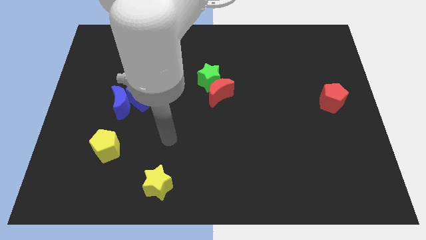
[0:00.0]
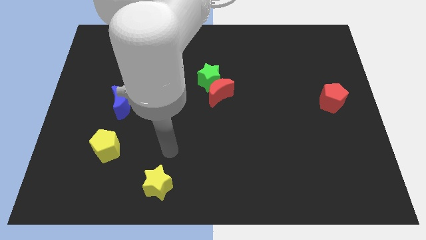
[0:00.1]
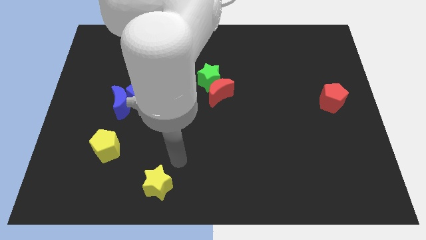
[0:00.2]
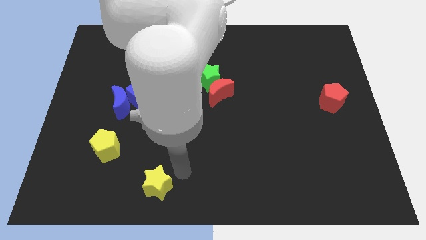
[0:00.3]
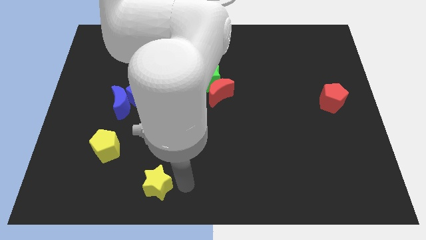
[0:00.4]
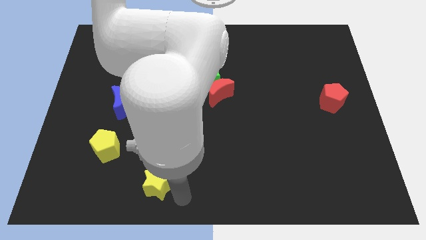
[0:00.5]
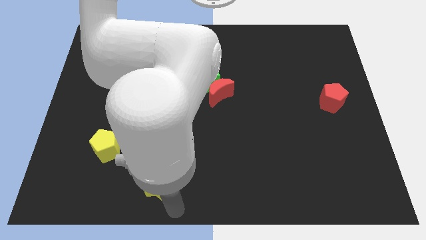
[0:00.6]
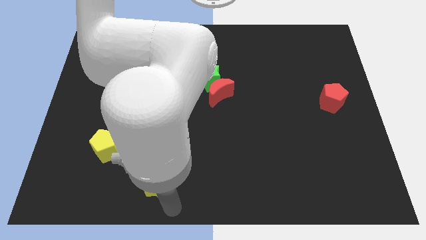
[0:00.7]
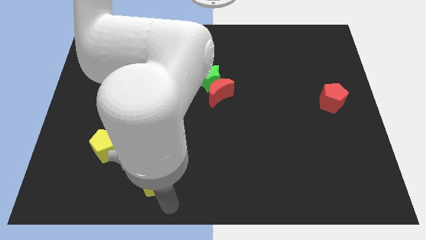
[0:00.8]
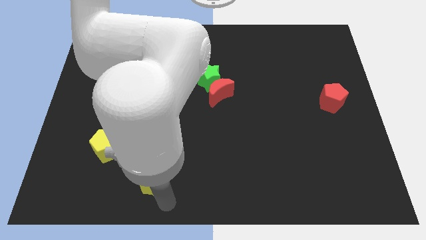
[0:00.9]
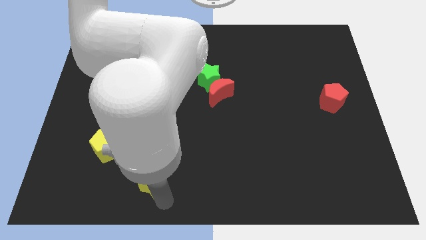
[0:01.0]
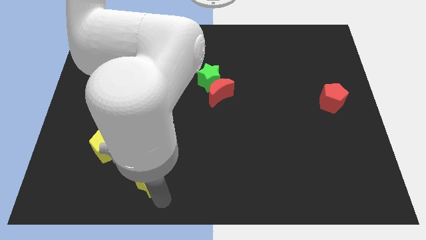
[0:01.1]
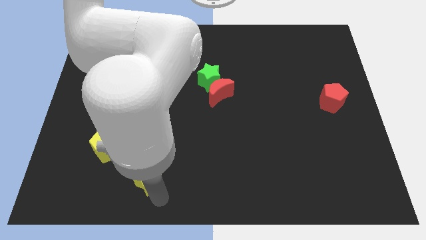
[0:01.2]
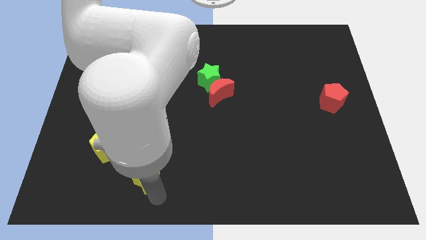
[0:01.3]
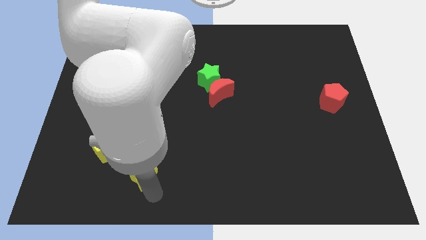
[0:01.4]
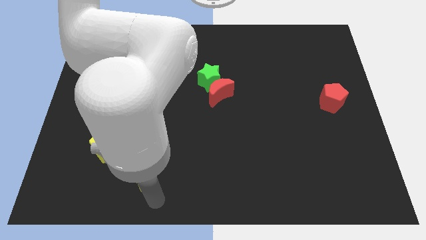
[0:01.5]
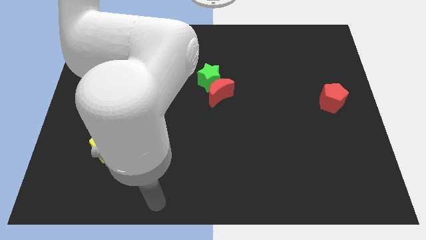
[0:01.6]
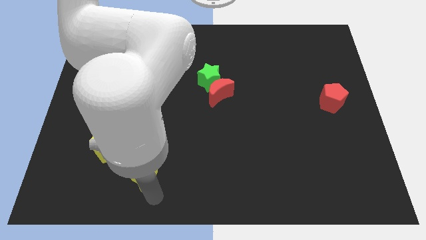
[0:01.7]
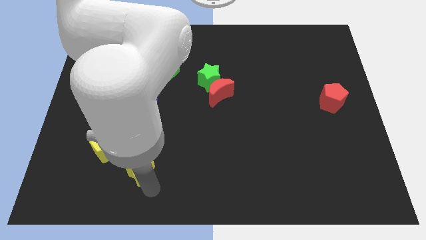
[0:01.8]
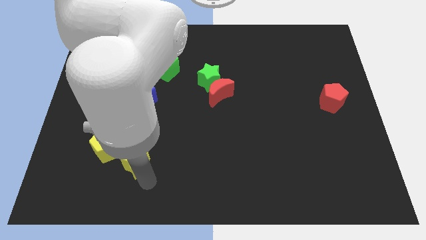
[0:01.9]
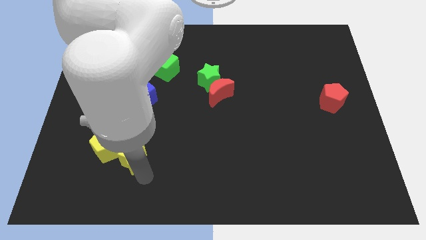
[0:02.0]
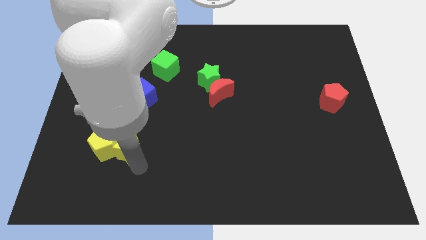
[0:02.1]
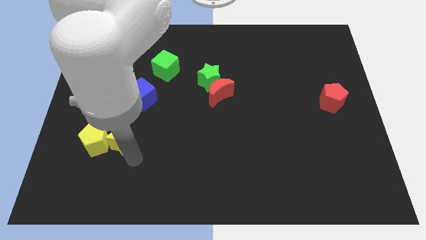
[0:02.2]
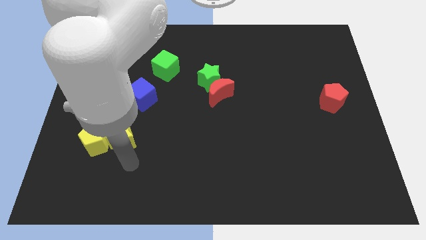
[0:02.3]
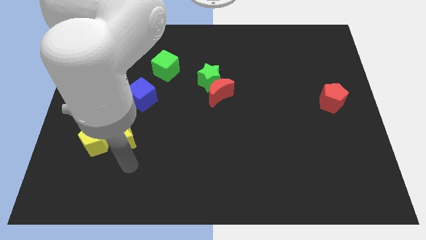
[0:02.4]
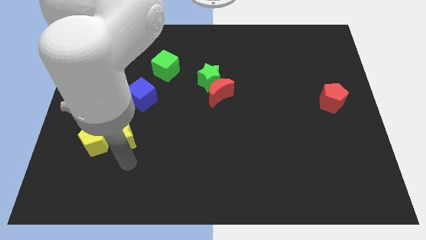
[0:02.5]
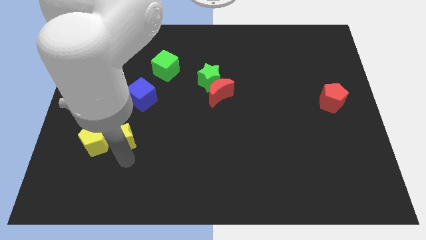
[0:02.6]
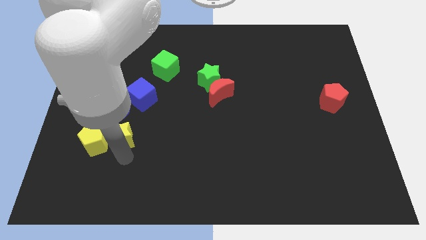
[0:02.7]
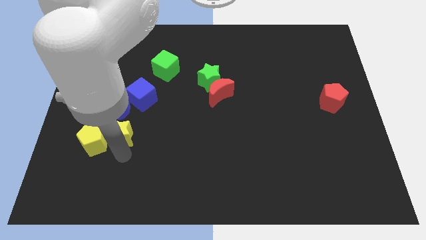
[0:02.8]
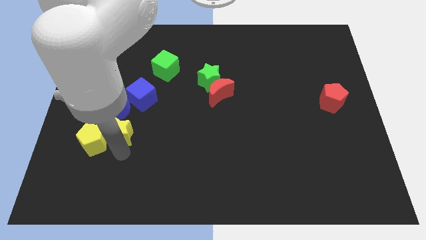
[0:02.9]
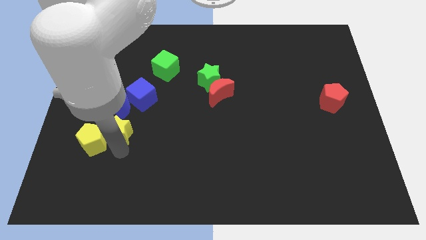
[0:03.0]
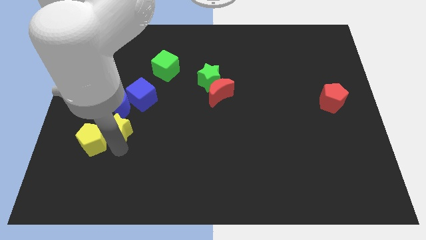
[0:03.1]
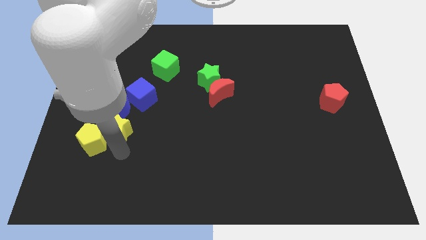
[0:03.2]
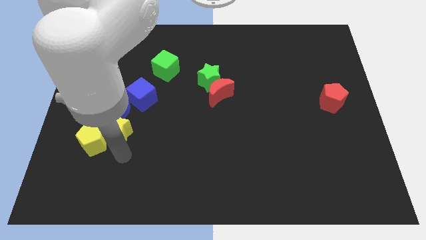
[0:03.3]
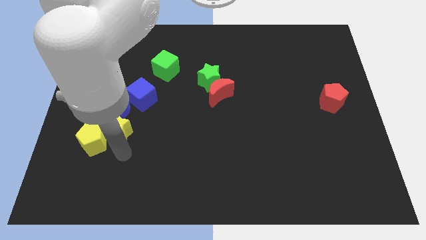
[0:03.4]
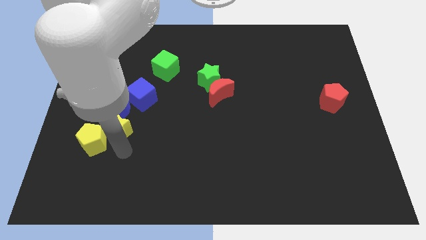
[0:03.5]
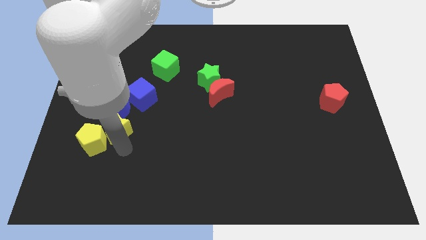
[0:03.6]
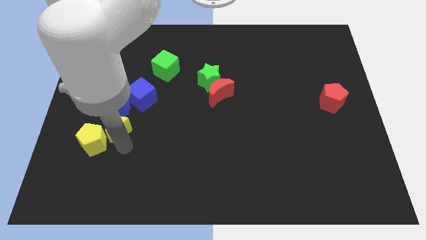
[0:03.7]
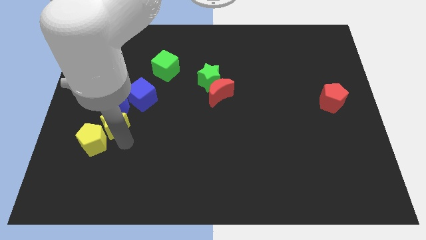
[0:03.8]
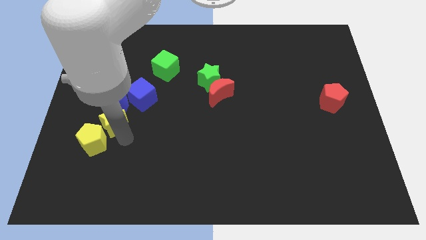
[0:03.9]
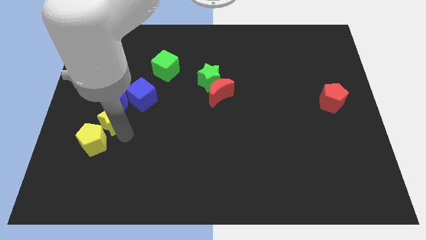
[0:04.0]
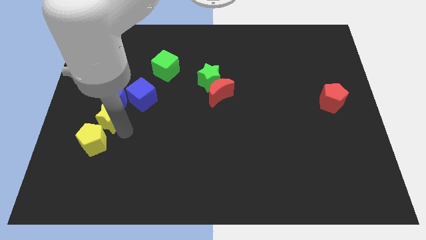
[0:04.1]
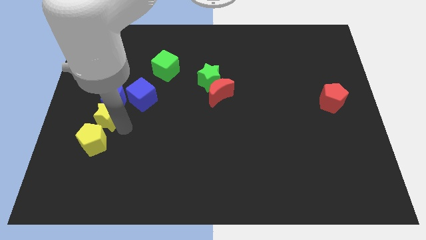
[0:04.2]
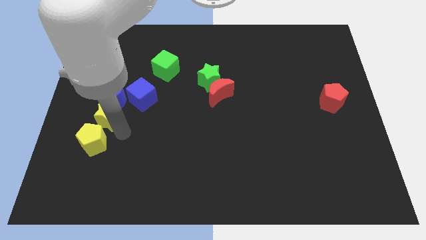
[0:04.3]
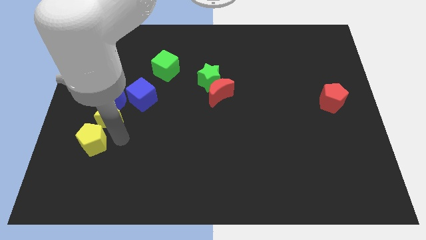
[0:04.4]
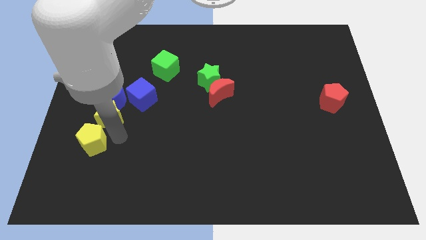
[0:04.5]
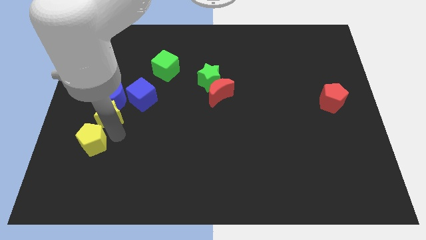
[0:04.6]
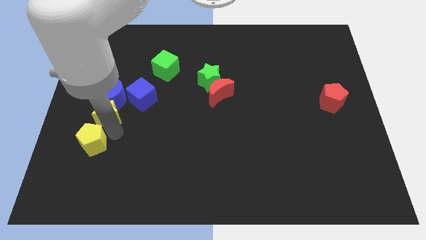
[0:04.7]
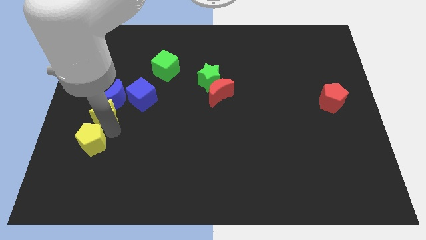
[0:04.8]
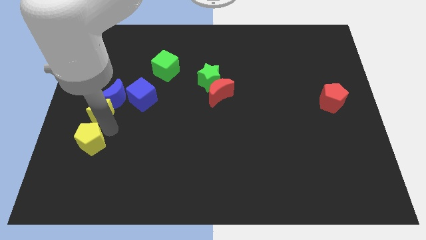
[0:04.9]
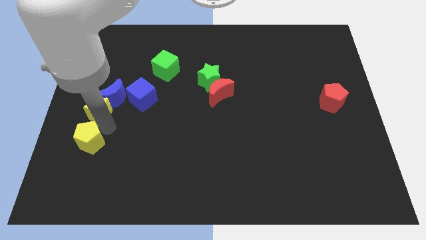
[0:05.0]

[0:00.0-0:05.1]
move the yellow star to the left side of the blue cube

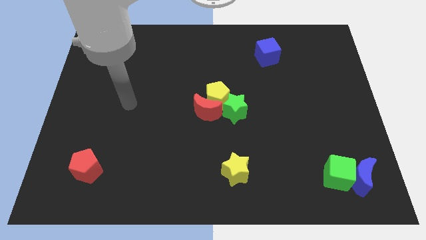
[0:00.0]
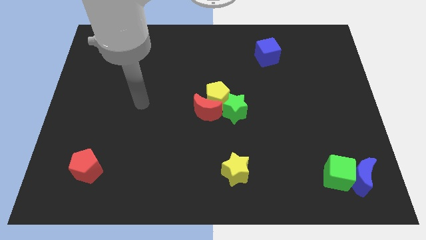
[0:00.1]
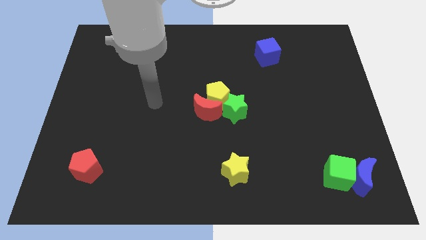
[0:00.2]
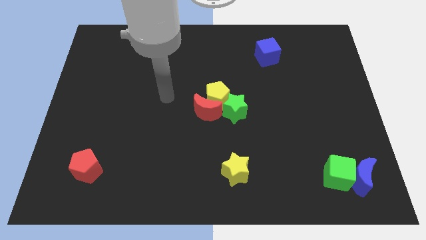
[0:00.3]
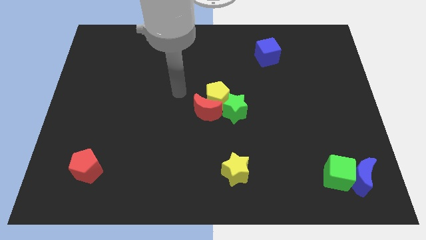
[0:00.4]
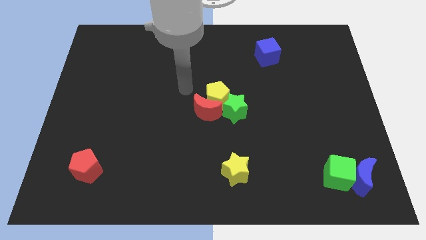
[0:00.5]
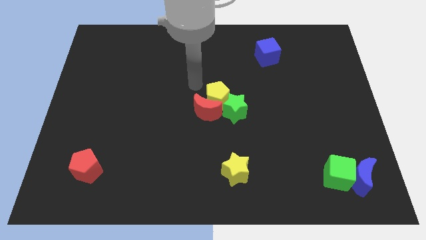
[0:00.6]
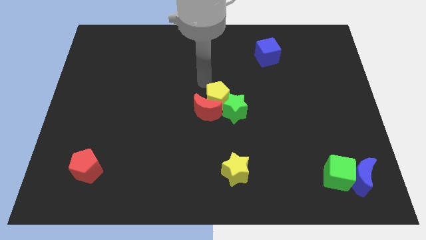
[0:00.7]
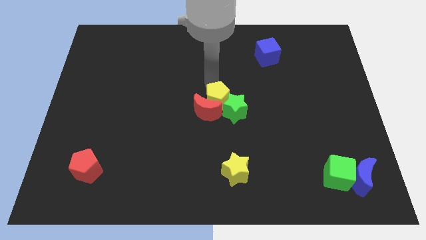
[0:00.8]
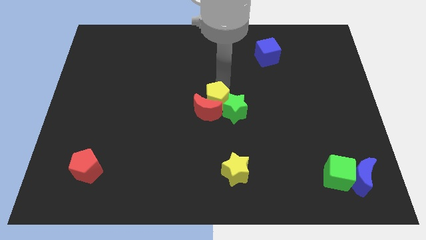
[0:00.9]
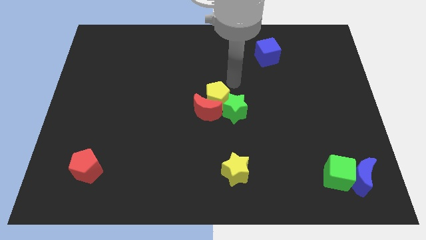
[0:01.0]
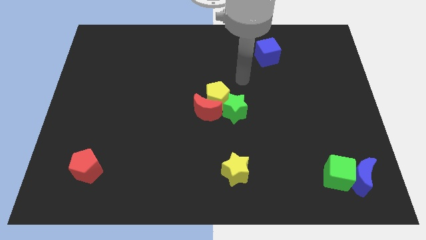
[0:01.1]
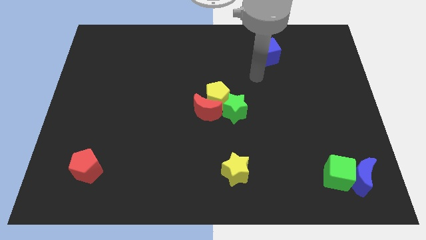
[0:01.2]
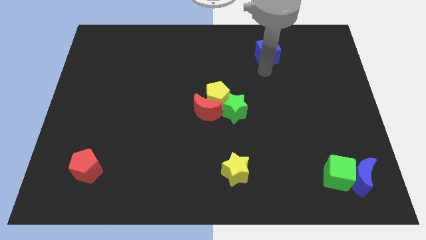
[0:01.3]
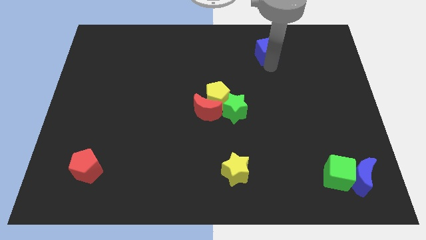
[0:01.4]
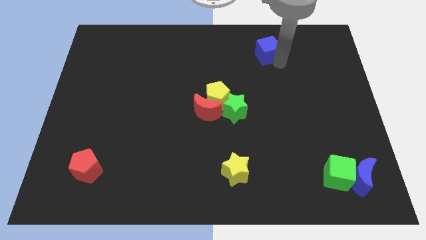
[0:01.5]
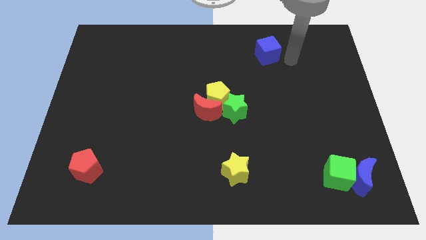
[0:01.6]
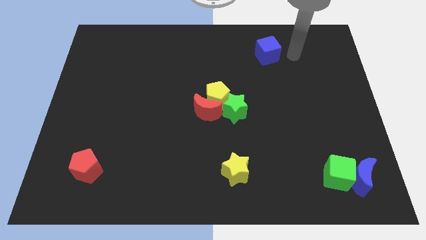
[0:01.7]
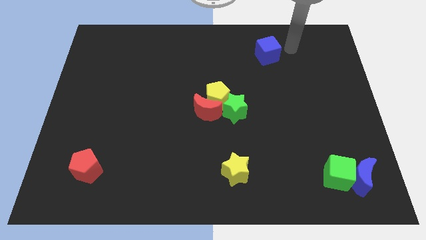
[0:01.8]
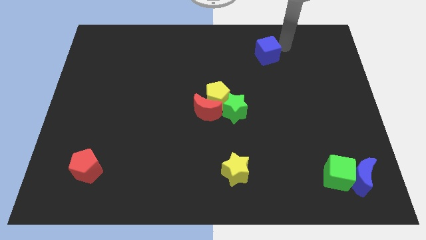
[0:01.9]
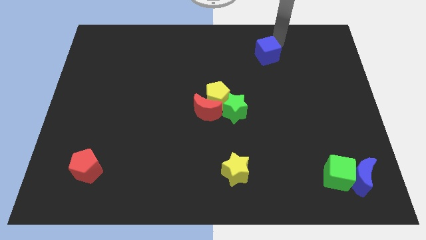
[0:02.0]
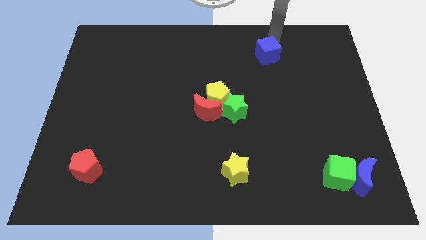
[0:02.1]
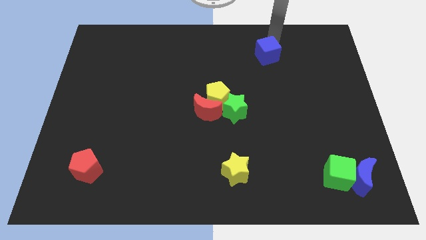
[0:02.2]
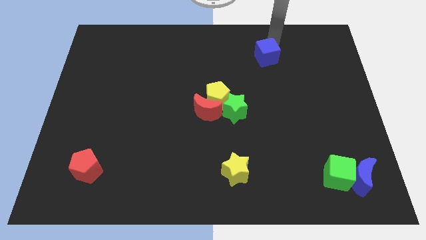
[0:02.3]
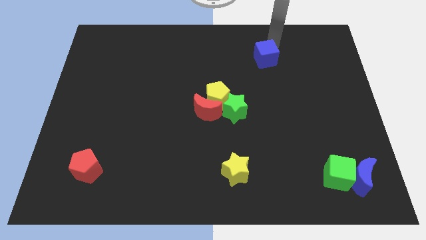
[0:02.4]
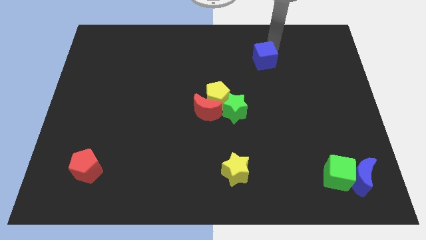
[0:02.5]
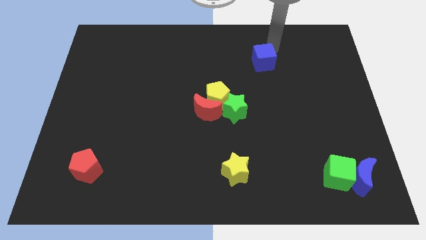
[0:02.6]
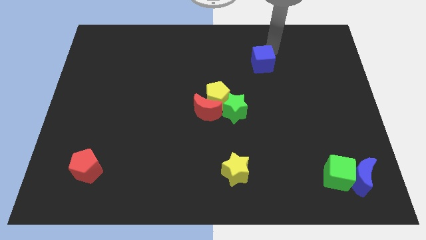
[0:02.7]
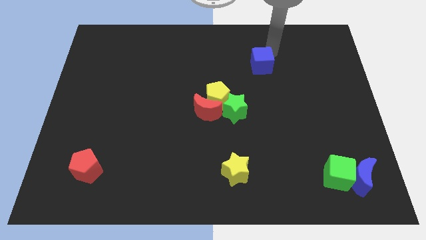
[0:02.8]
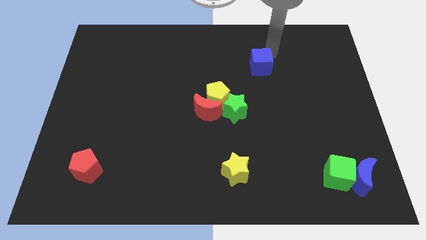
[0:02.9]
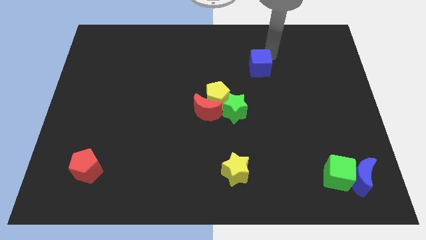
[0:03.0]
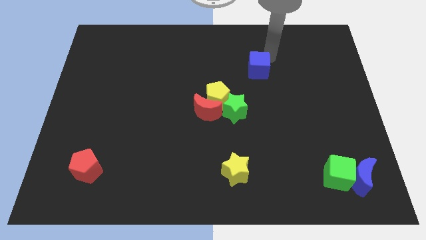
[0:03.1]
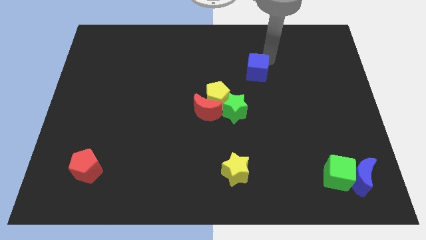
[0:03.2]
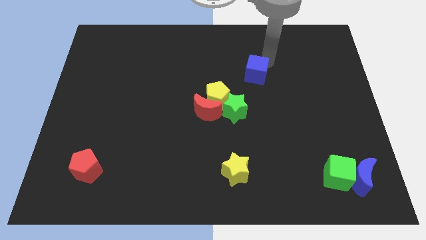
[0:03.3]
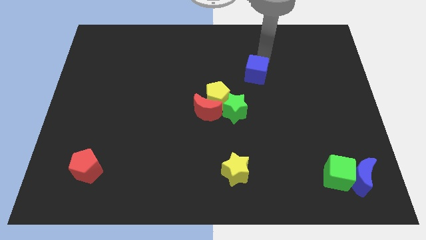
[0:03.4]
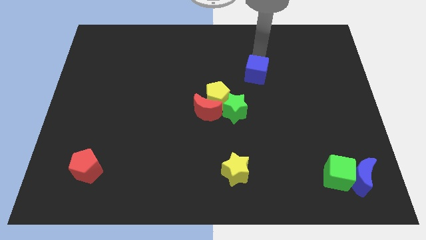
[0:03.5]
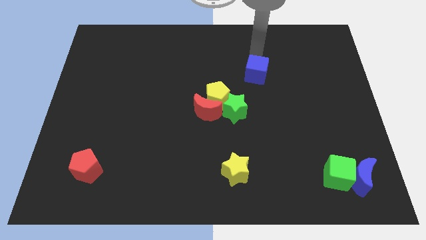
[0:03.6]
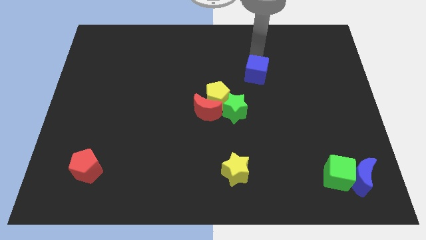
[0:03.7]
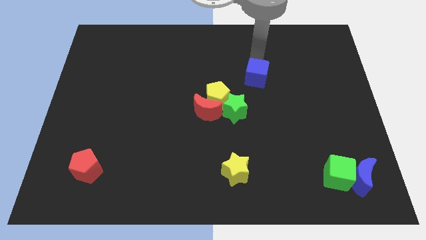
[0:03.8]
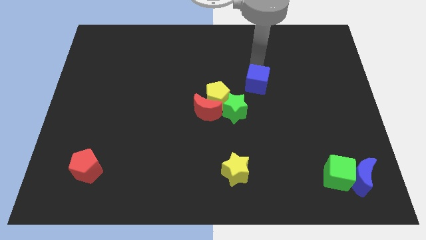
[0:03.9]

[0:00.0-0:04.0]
push the blue cube diagonally up and to the right of the green star
